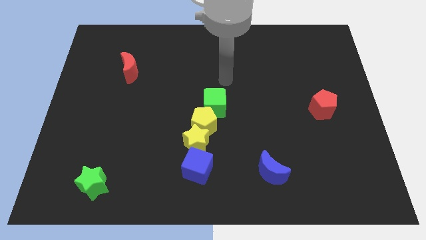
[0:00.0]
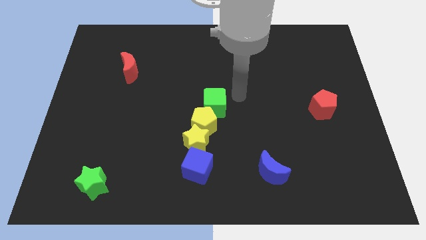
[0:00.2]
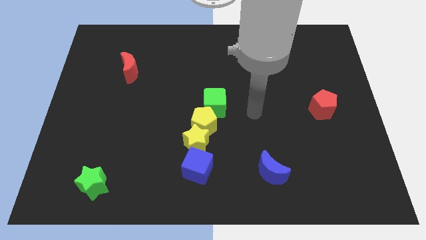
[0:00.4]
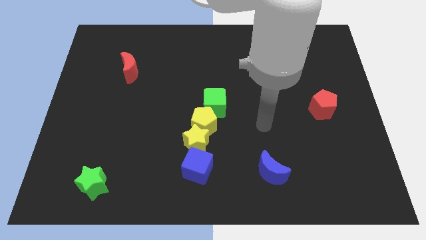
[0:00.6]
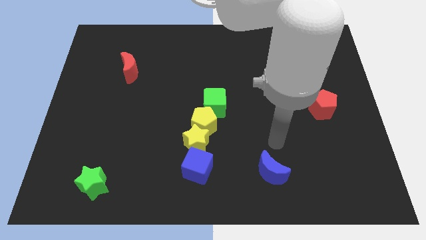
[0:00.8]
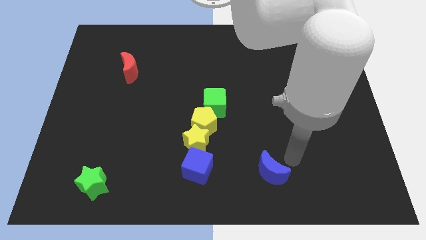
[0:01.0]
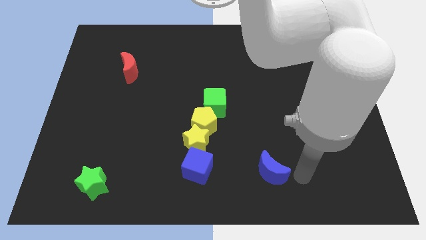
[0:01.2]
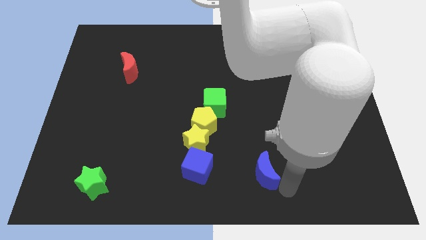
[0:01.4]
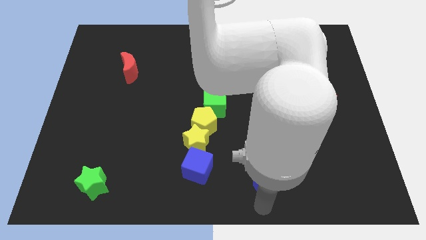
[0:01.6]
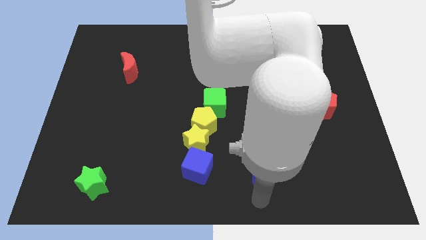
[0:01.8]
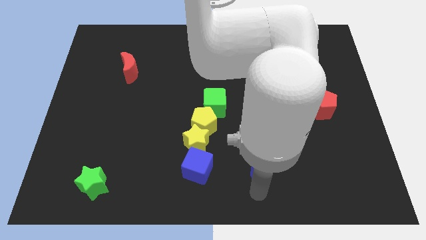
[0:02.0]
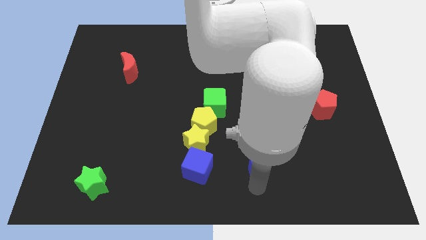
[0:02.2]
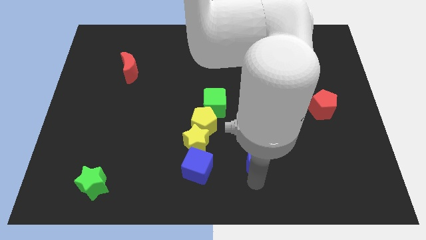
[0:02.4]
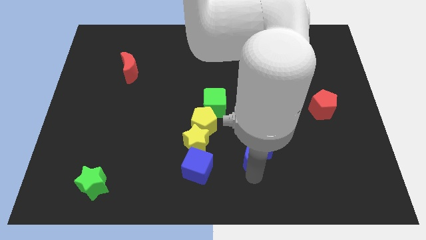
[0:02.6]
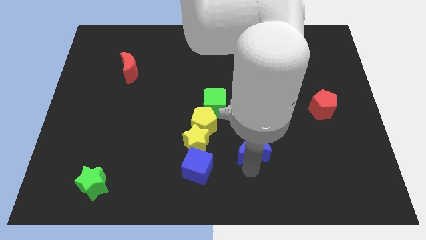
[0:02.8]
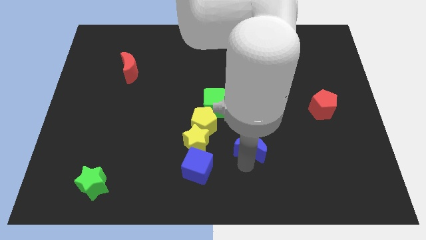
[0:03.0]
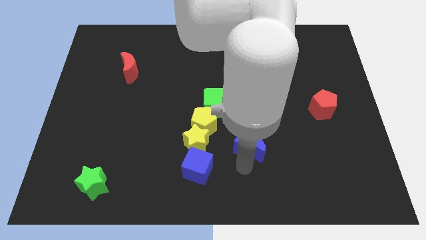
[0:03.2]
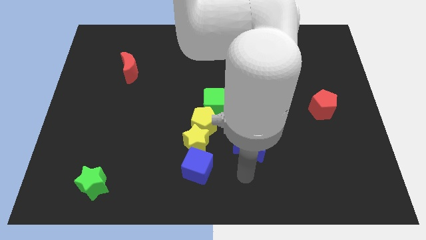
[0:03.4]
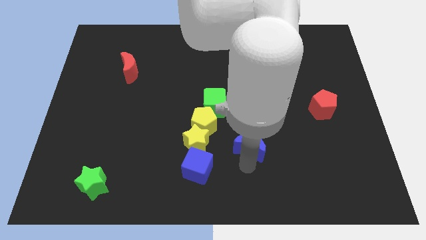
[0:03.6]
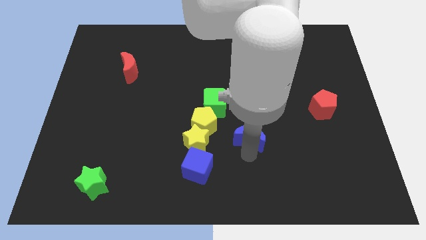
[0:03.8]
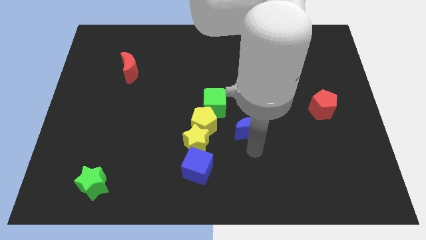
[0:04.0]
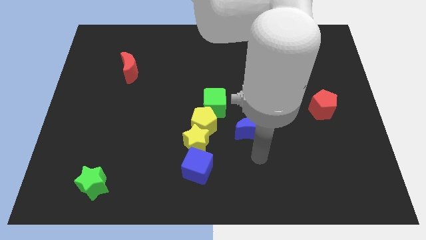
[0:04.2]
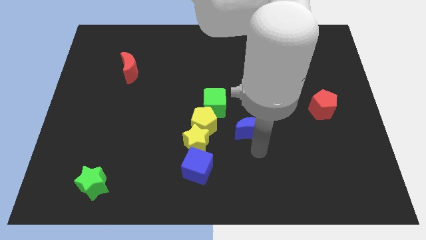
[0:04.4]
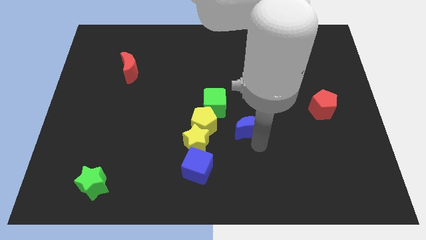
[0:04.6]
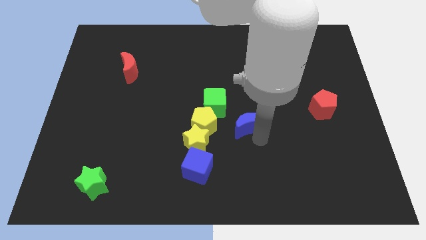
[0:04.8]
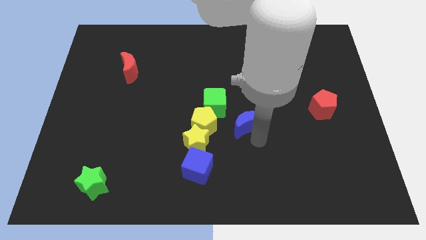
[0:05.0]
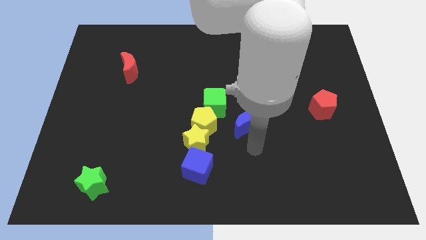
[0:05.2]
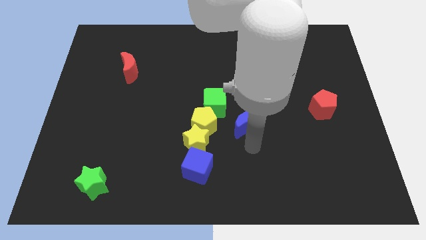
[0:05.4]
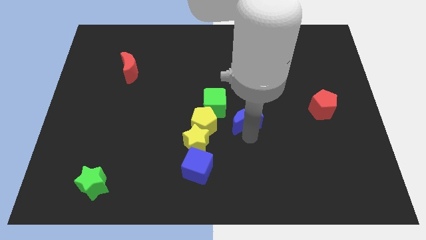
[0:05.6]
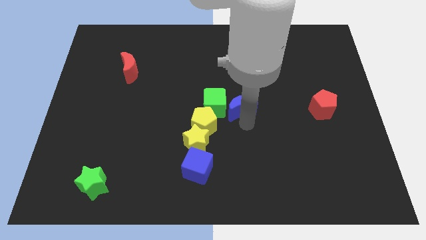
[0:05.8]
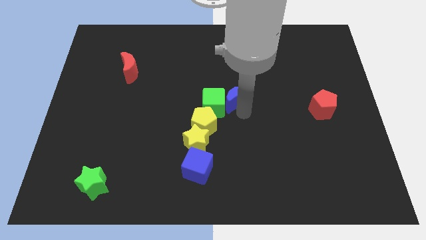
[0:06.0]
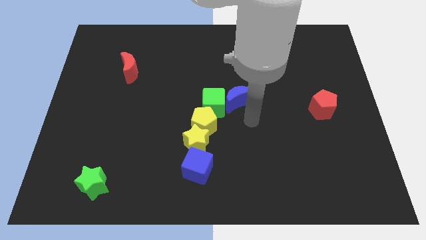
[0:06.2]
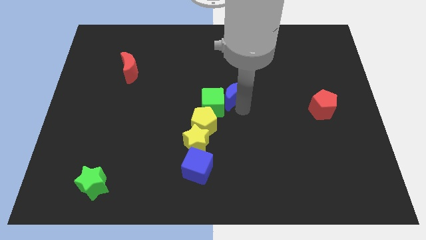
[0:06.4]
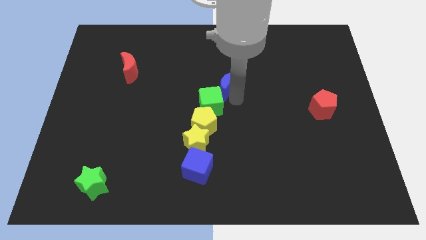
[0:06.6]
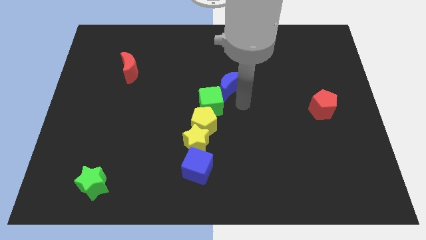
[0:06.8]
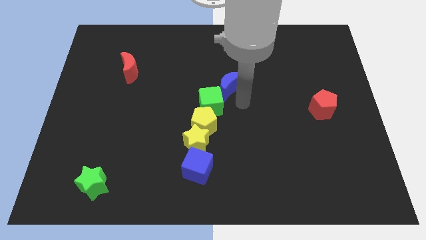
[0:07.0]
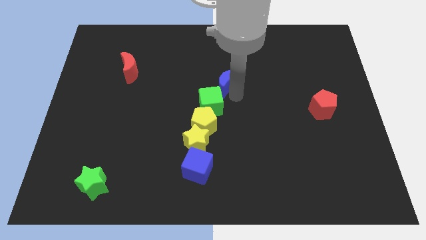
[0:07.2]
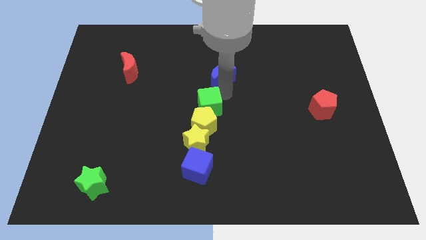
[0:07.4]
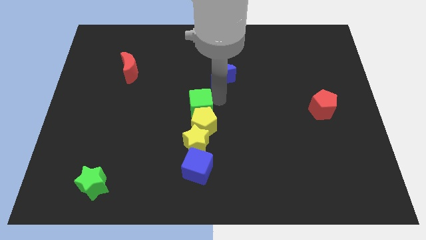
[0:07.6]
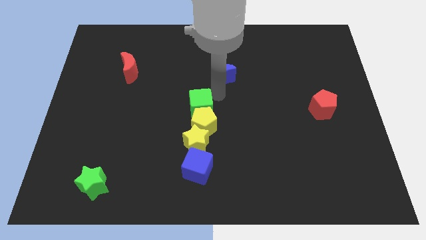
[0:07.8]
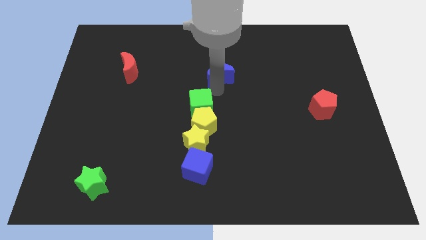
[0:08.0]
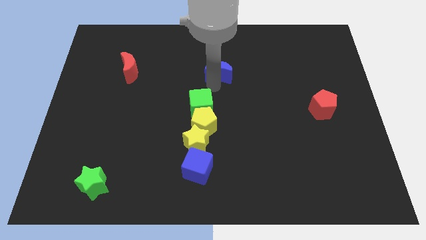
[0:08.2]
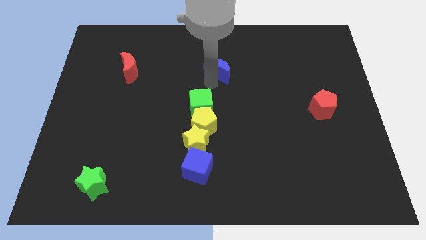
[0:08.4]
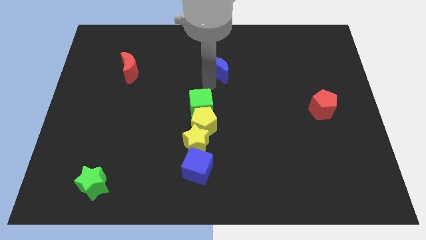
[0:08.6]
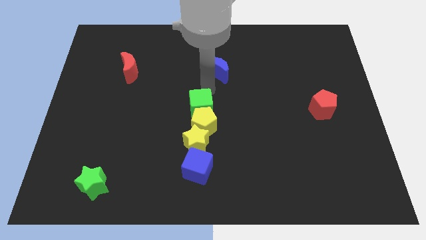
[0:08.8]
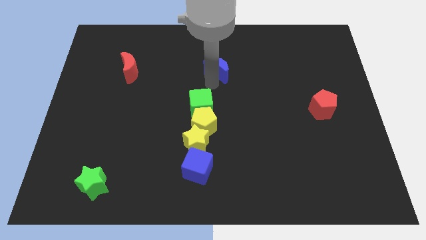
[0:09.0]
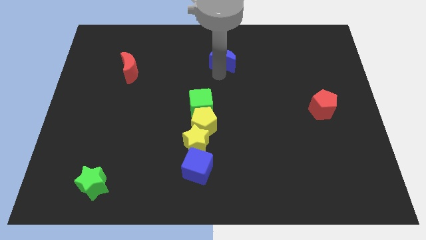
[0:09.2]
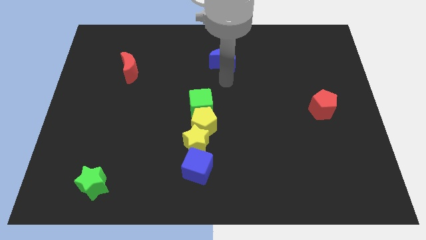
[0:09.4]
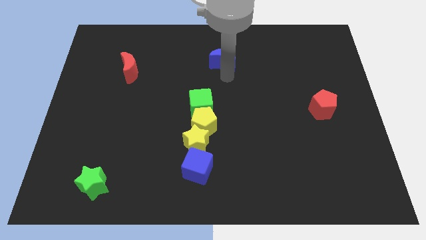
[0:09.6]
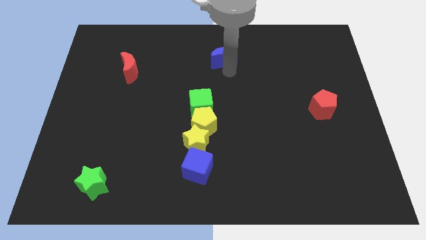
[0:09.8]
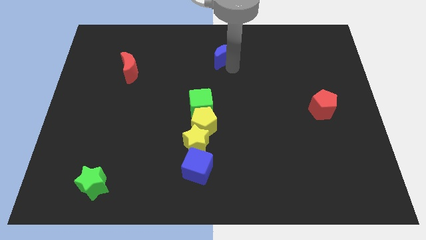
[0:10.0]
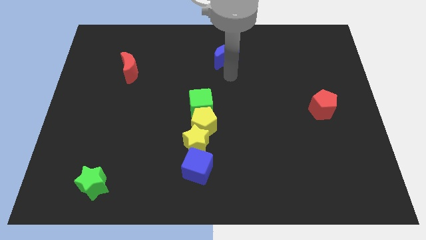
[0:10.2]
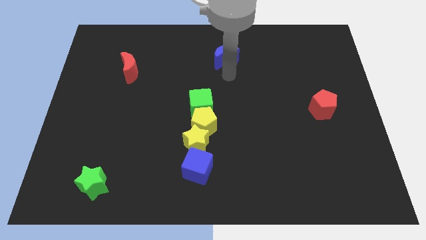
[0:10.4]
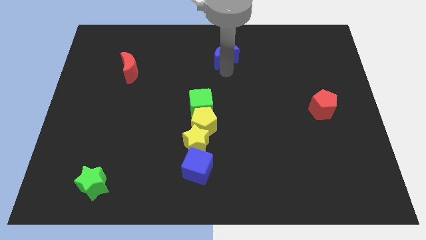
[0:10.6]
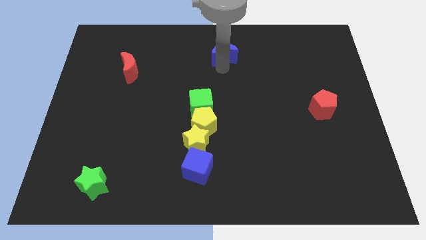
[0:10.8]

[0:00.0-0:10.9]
put the blue moon to the towards your base

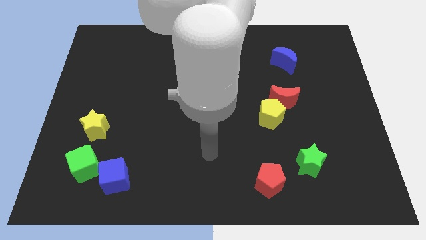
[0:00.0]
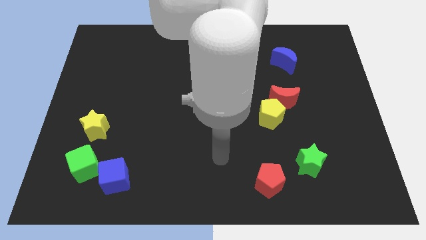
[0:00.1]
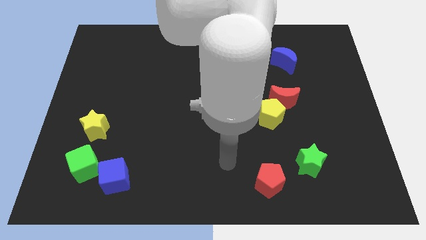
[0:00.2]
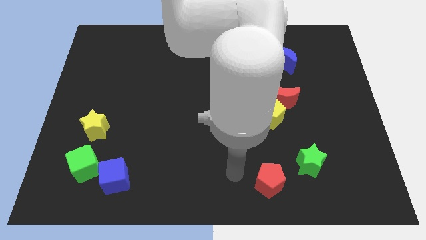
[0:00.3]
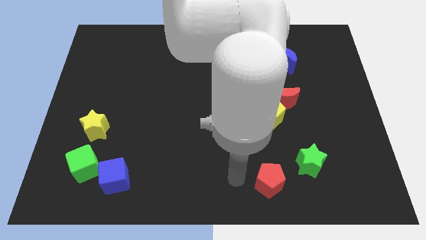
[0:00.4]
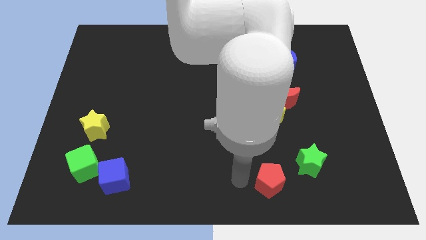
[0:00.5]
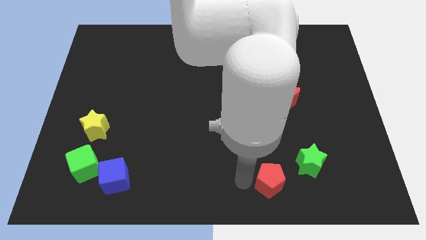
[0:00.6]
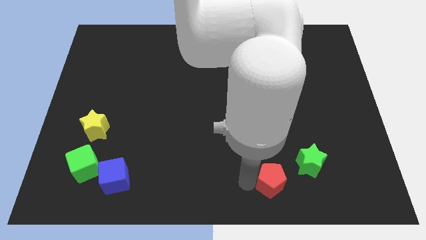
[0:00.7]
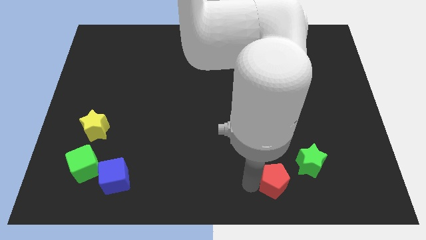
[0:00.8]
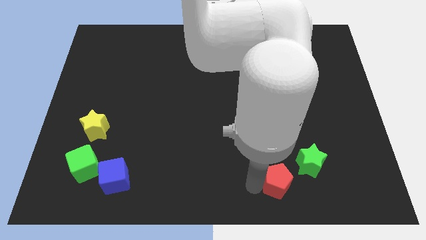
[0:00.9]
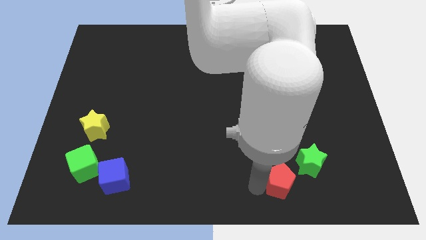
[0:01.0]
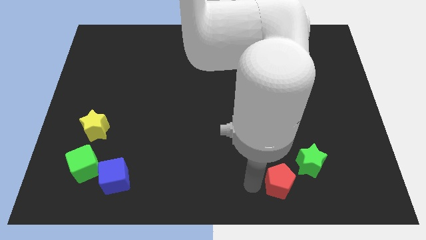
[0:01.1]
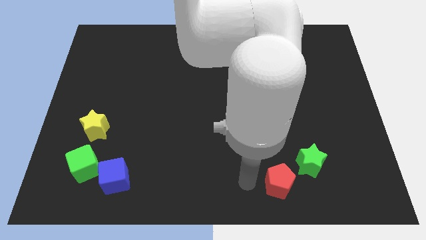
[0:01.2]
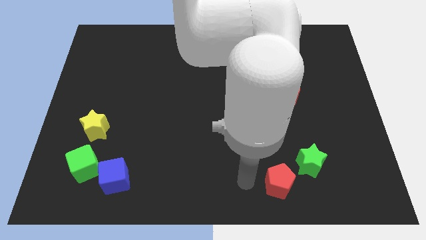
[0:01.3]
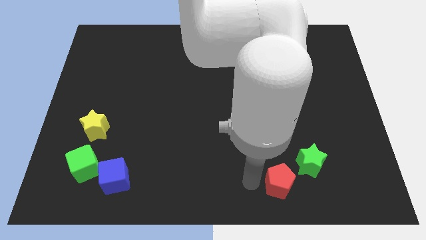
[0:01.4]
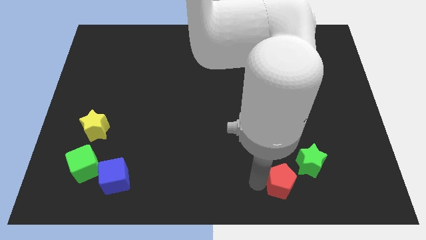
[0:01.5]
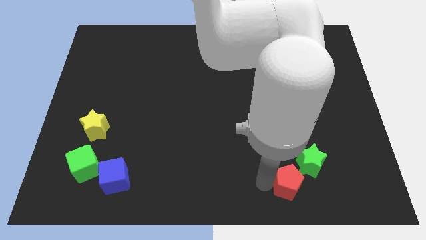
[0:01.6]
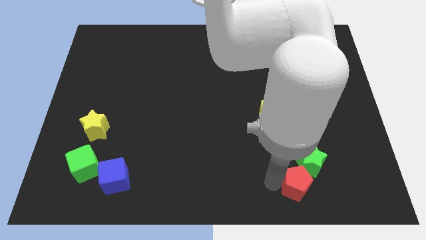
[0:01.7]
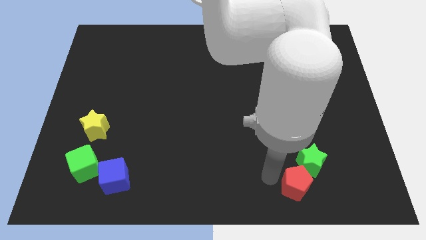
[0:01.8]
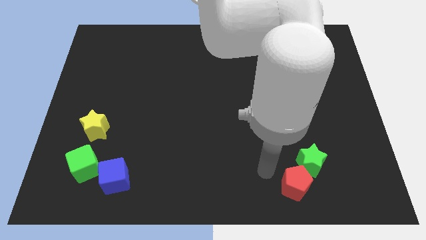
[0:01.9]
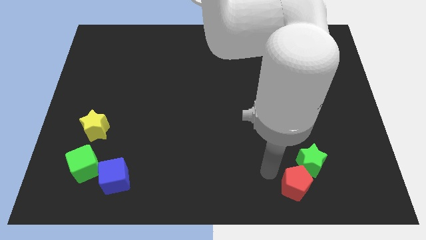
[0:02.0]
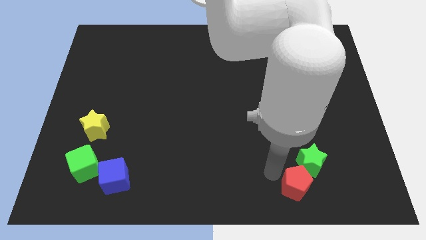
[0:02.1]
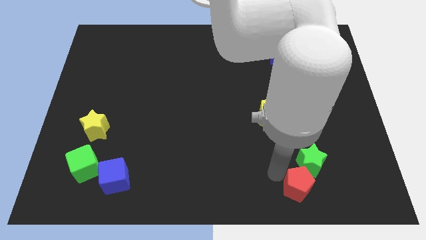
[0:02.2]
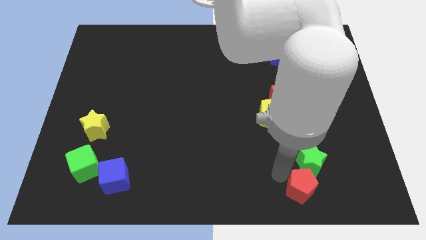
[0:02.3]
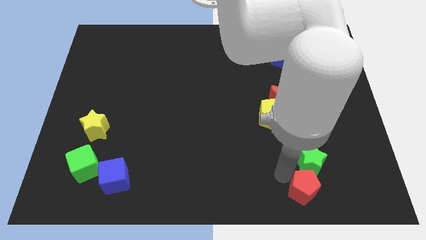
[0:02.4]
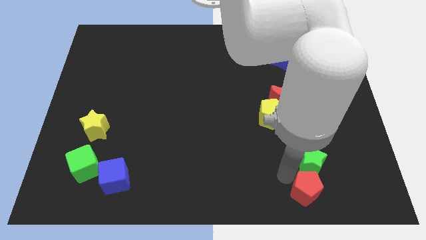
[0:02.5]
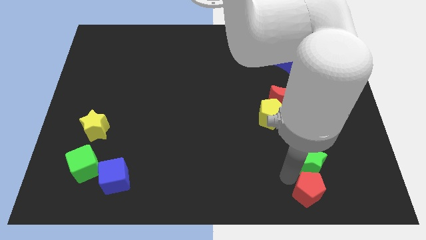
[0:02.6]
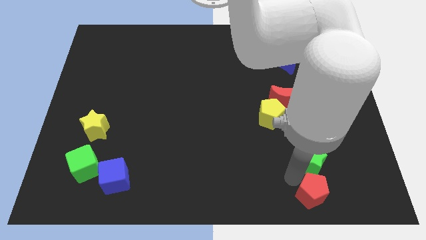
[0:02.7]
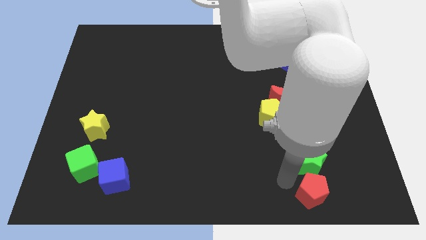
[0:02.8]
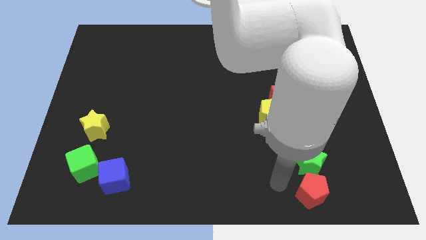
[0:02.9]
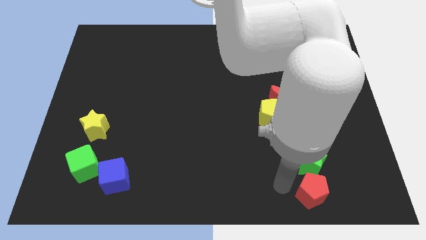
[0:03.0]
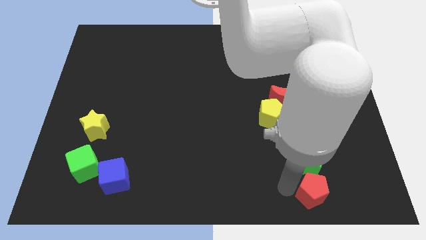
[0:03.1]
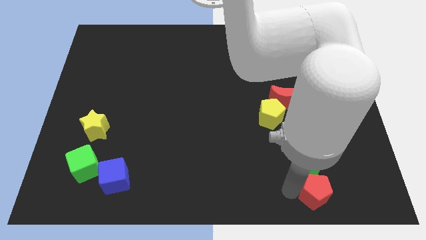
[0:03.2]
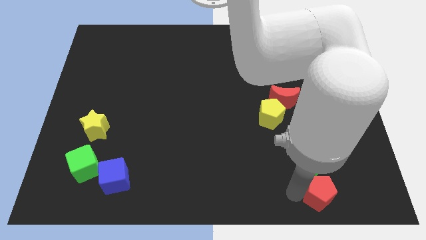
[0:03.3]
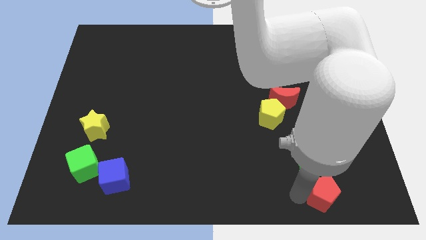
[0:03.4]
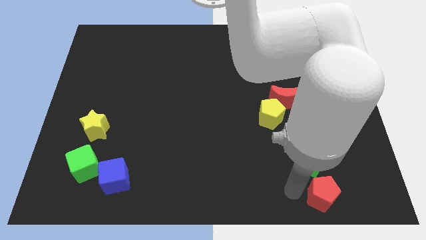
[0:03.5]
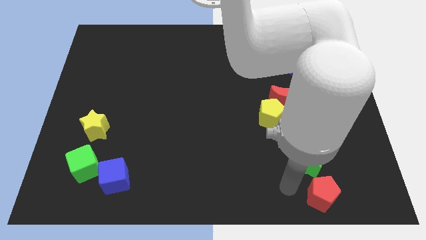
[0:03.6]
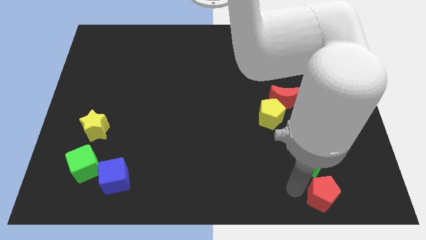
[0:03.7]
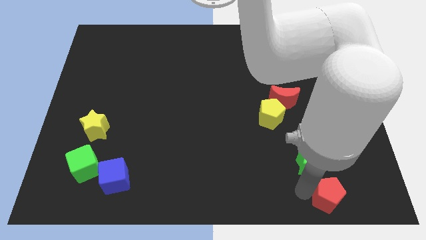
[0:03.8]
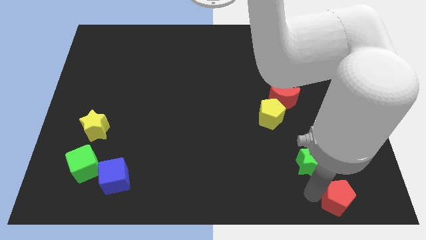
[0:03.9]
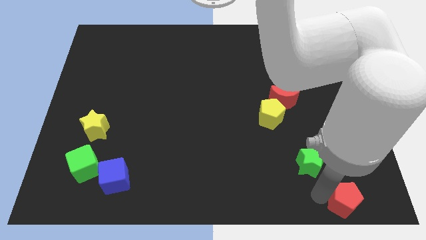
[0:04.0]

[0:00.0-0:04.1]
push the red pentagon to the lower right corner
